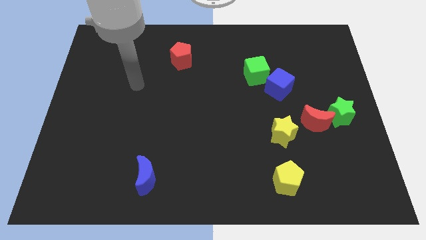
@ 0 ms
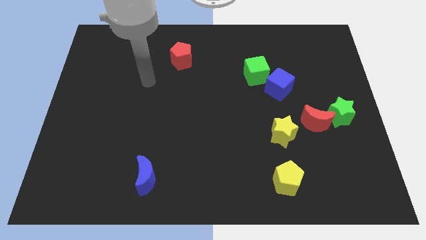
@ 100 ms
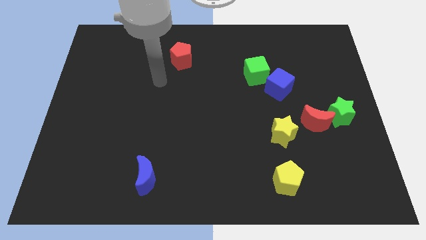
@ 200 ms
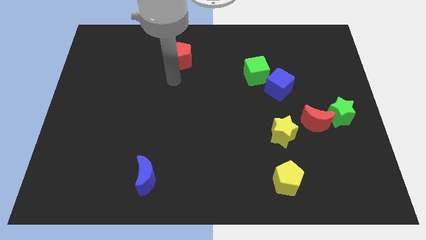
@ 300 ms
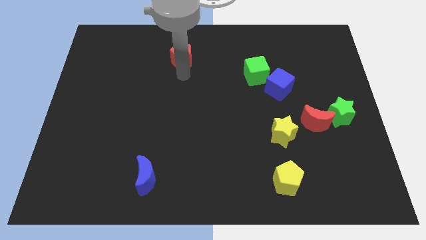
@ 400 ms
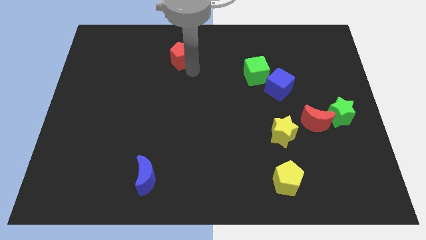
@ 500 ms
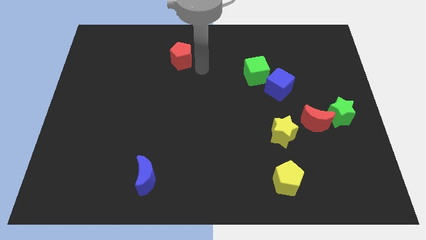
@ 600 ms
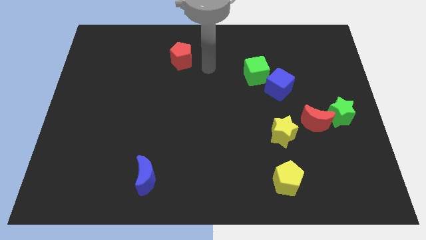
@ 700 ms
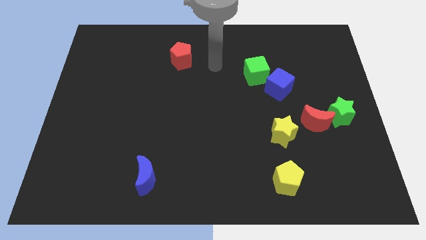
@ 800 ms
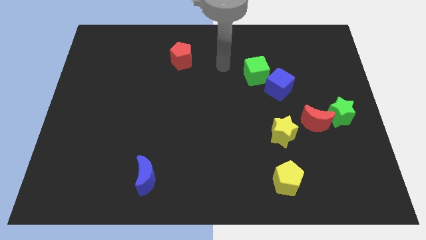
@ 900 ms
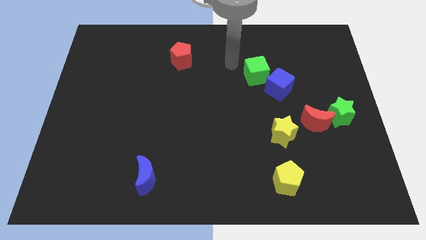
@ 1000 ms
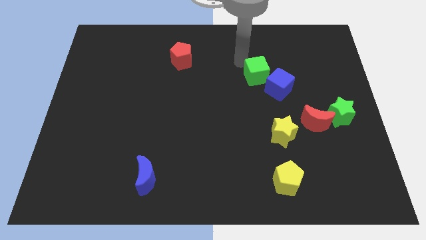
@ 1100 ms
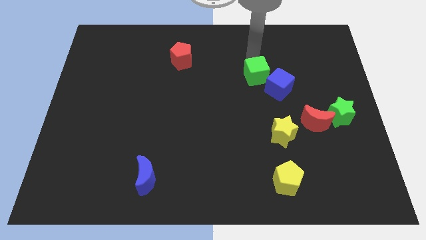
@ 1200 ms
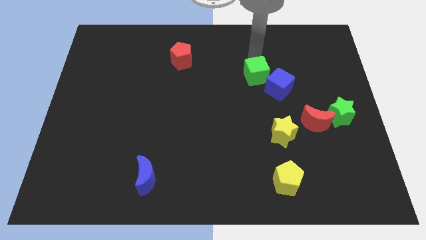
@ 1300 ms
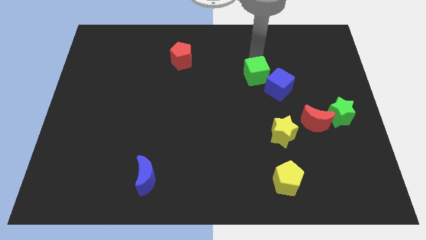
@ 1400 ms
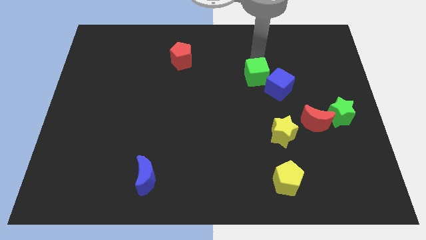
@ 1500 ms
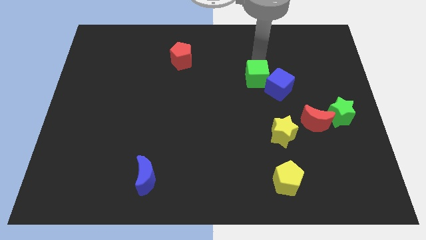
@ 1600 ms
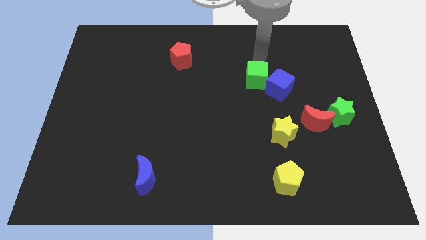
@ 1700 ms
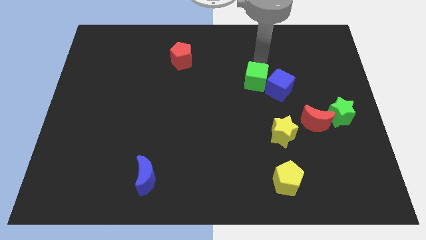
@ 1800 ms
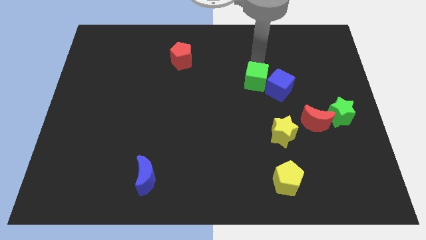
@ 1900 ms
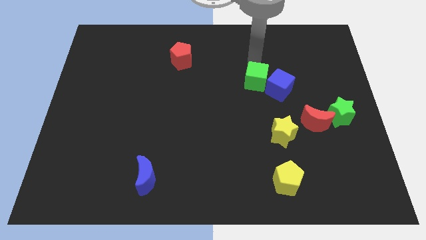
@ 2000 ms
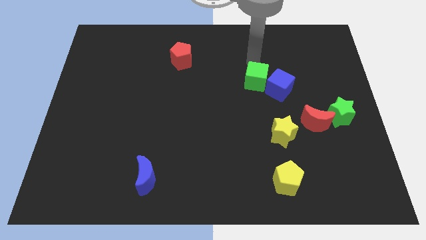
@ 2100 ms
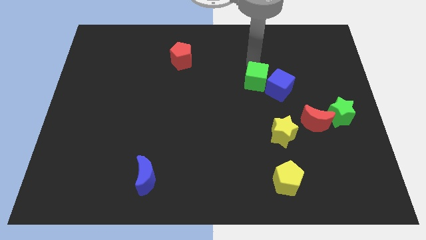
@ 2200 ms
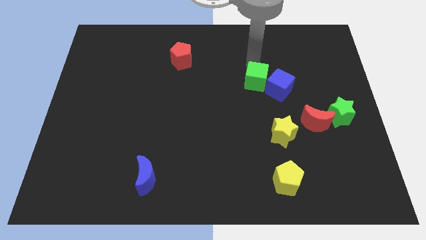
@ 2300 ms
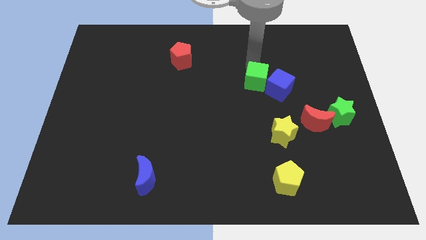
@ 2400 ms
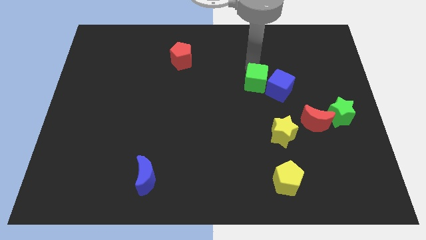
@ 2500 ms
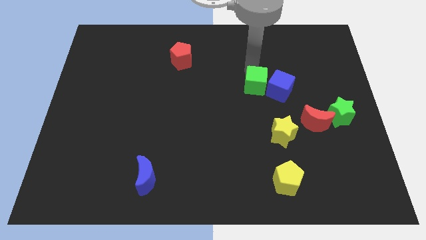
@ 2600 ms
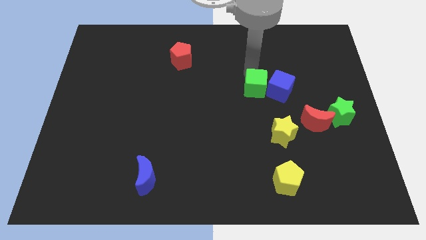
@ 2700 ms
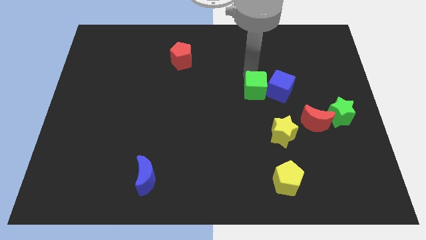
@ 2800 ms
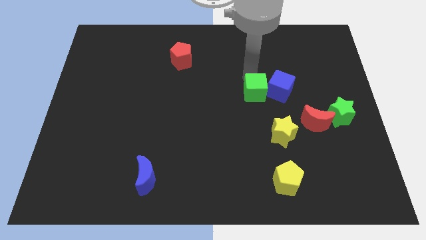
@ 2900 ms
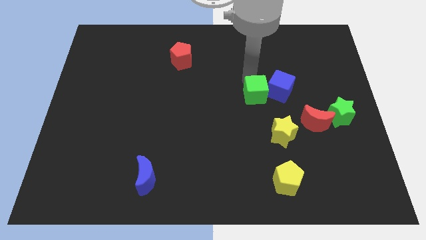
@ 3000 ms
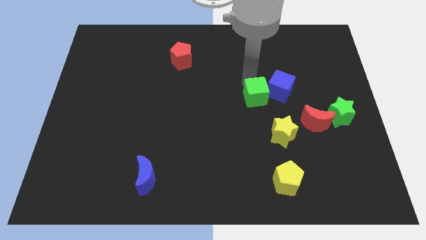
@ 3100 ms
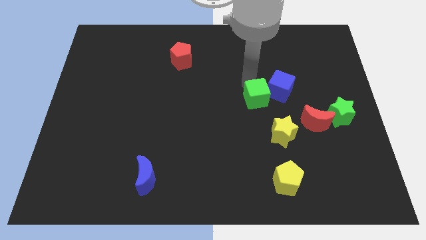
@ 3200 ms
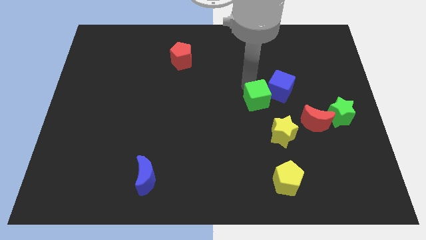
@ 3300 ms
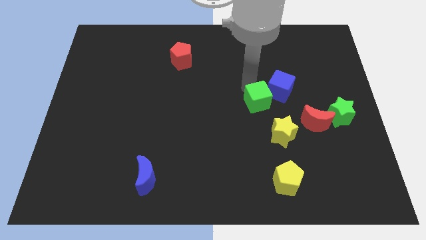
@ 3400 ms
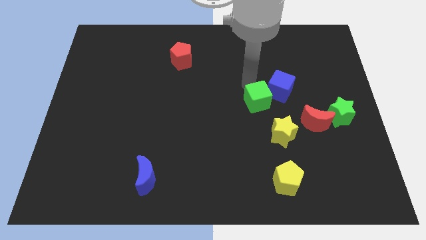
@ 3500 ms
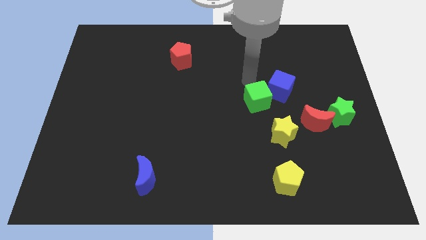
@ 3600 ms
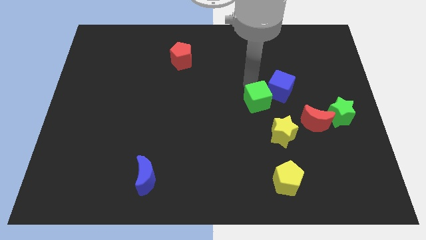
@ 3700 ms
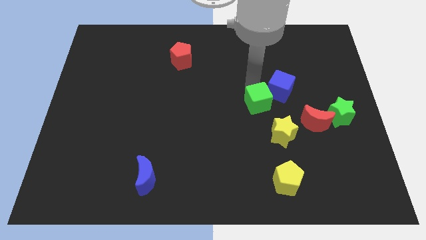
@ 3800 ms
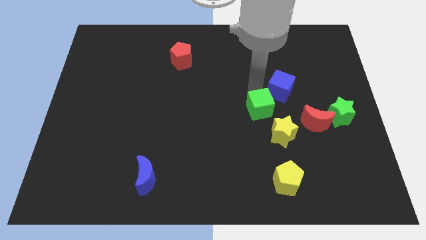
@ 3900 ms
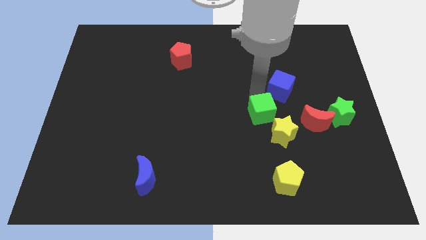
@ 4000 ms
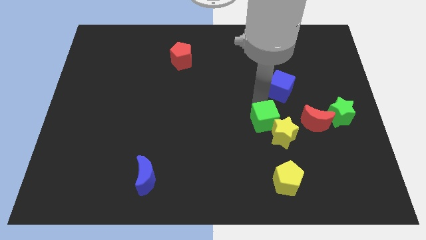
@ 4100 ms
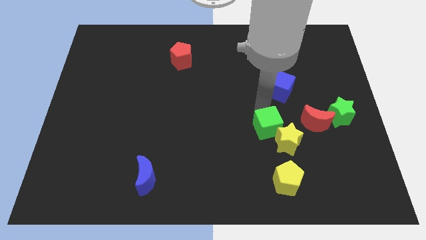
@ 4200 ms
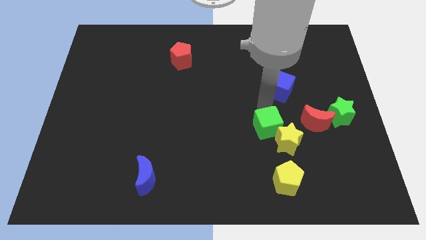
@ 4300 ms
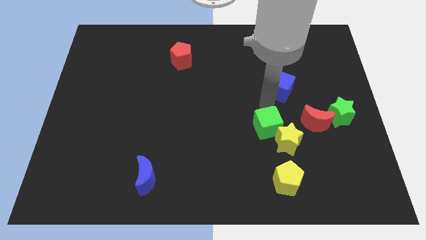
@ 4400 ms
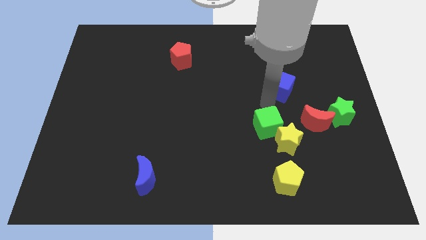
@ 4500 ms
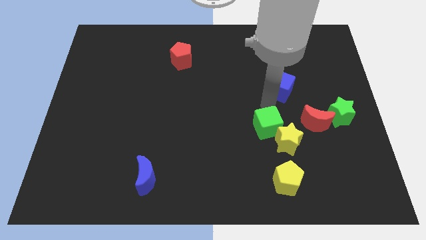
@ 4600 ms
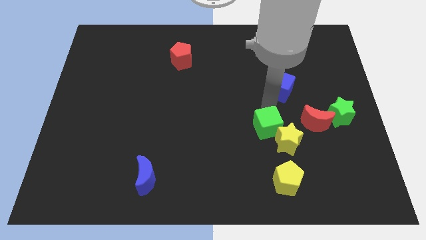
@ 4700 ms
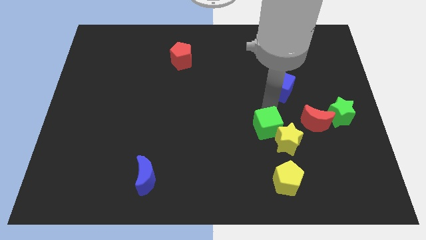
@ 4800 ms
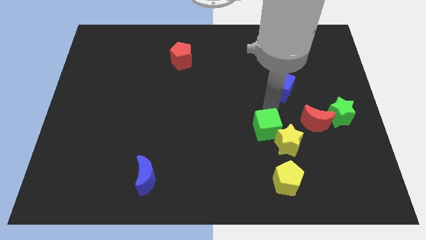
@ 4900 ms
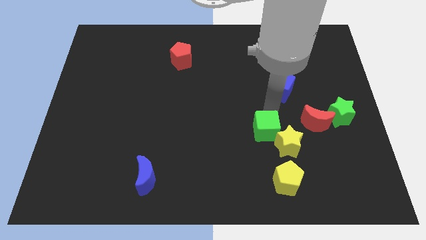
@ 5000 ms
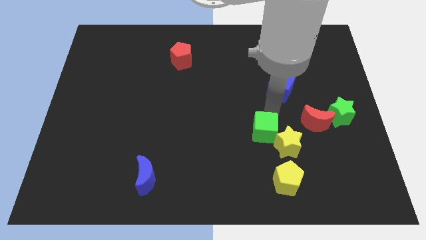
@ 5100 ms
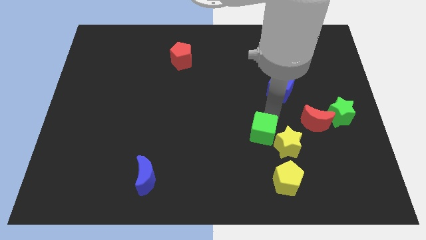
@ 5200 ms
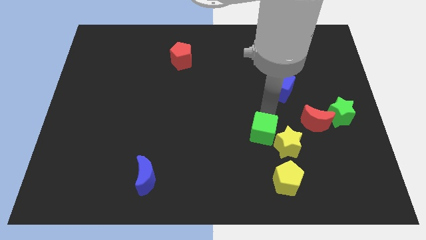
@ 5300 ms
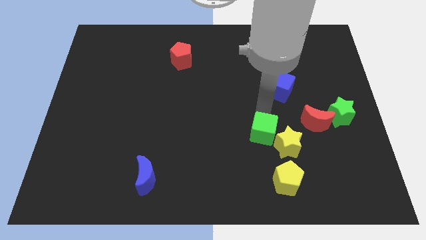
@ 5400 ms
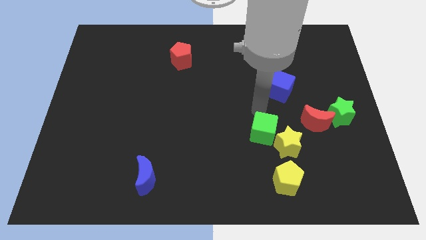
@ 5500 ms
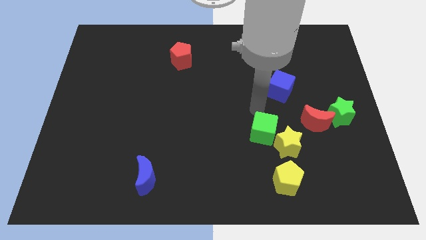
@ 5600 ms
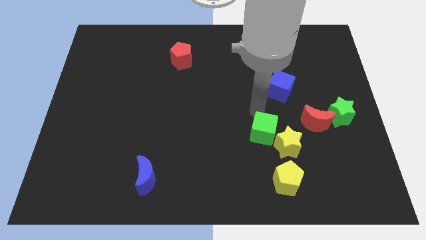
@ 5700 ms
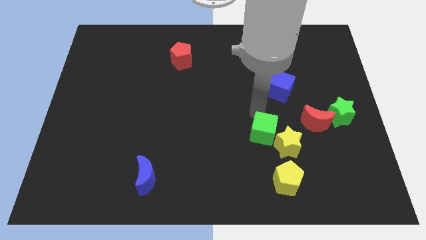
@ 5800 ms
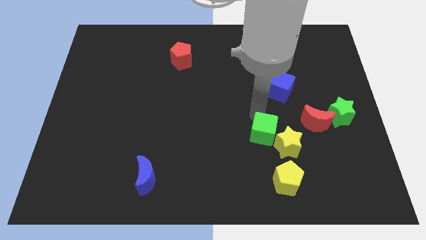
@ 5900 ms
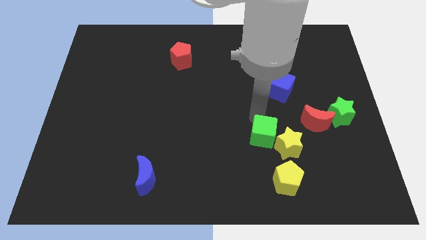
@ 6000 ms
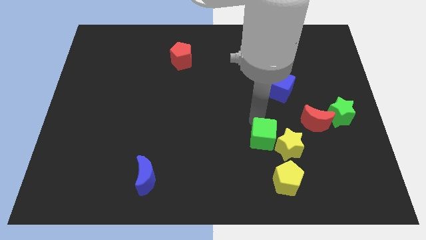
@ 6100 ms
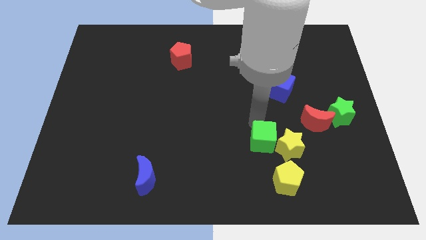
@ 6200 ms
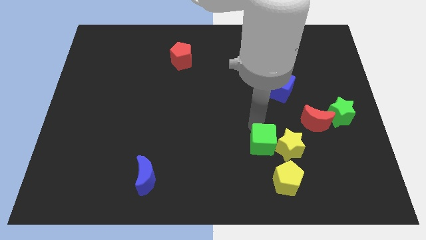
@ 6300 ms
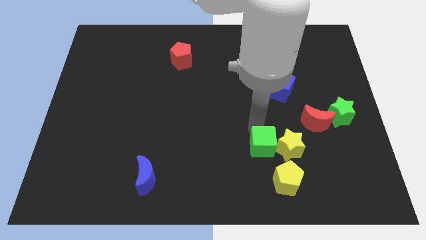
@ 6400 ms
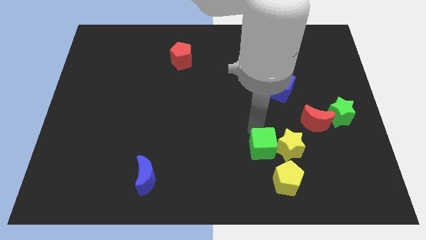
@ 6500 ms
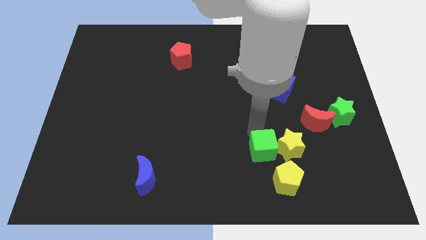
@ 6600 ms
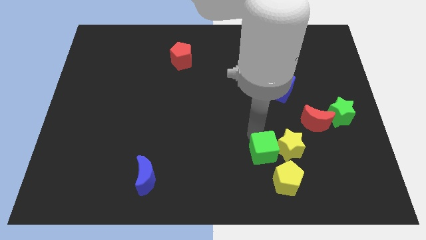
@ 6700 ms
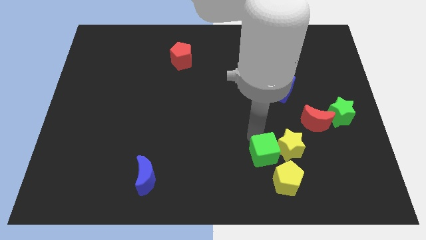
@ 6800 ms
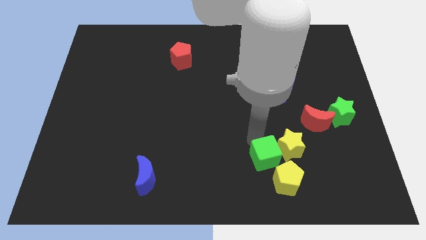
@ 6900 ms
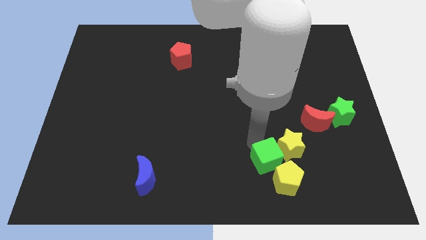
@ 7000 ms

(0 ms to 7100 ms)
move the green cube towards the yellow pentagon
